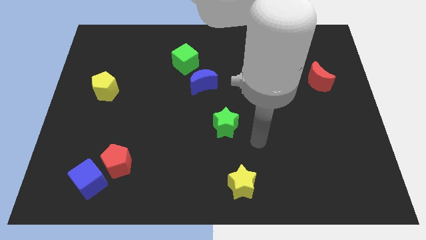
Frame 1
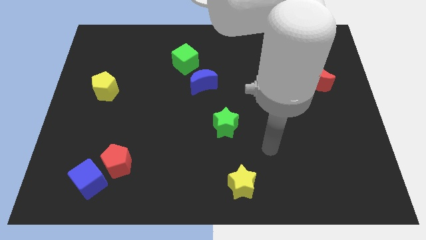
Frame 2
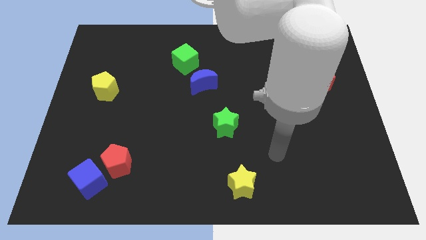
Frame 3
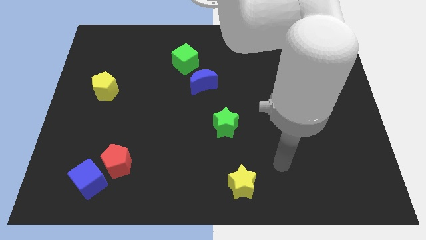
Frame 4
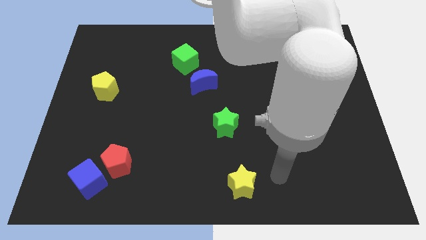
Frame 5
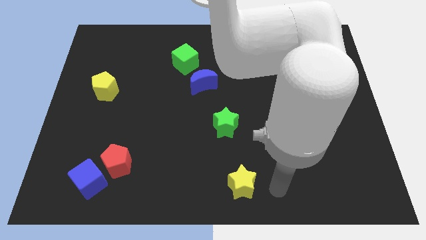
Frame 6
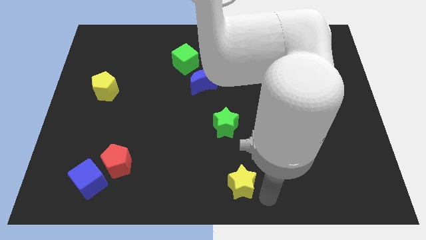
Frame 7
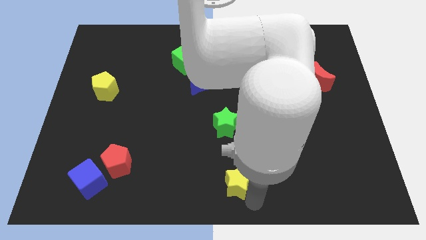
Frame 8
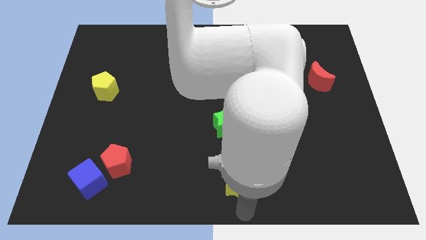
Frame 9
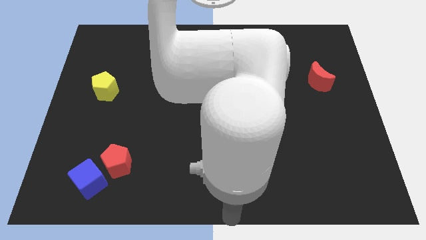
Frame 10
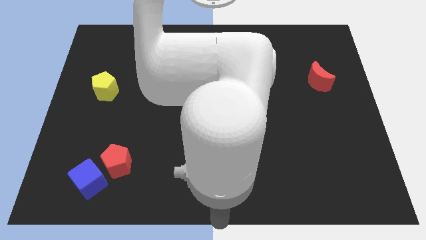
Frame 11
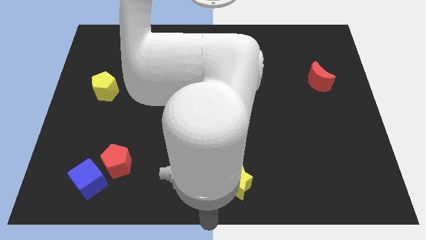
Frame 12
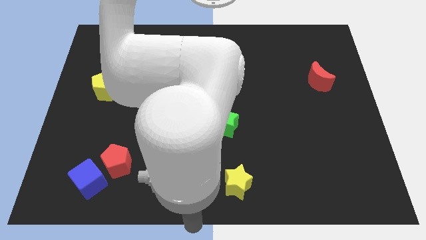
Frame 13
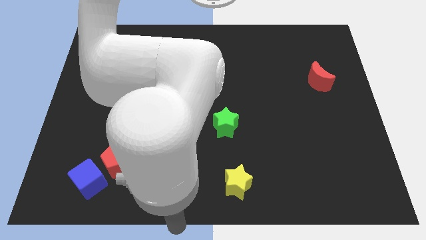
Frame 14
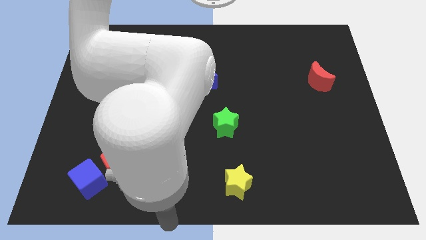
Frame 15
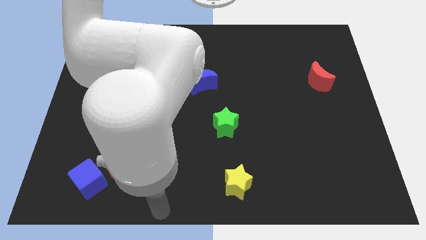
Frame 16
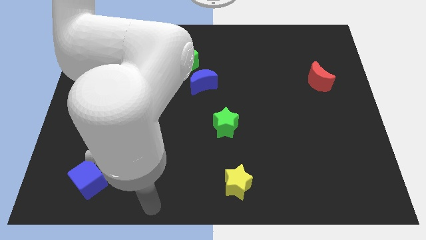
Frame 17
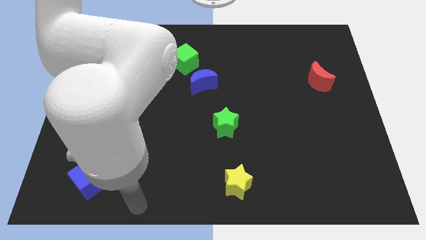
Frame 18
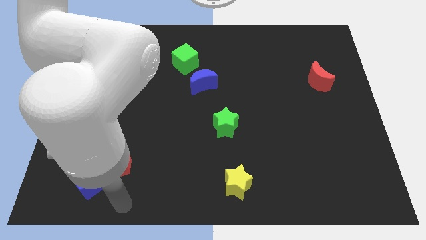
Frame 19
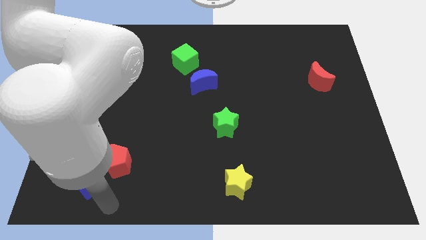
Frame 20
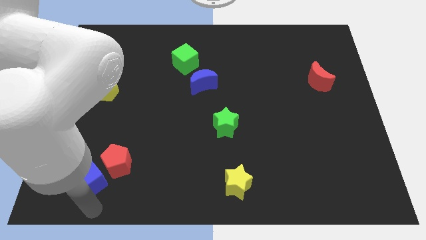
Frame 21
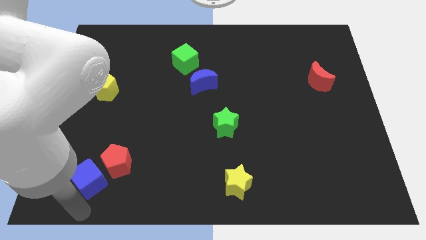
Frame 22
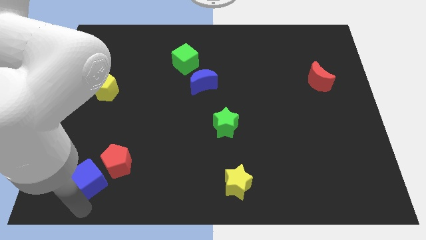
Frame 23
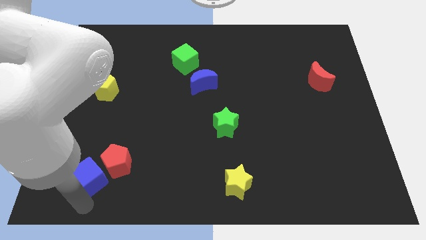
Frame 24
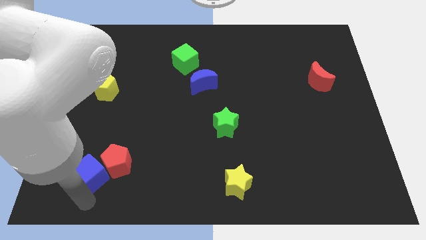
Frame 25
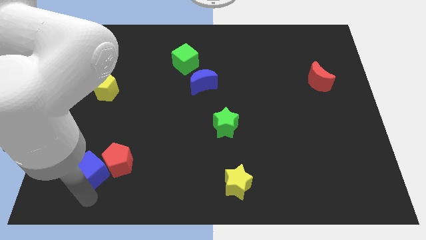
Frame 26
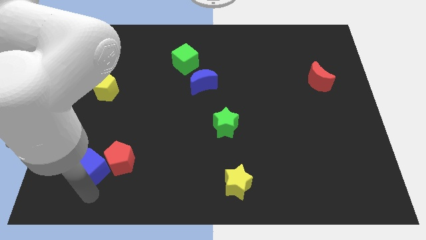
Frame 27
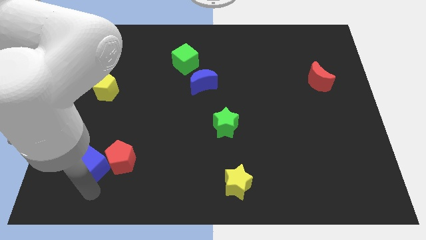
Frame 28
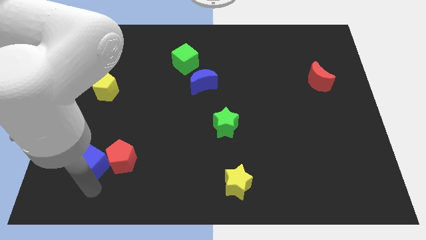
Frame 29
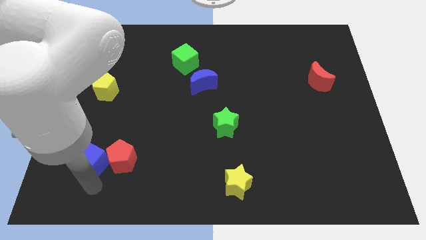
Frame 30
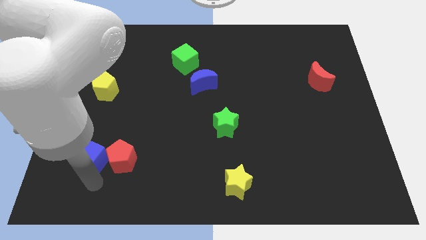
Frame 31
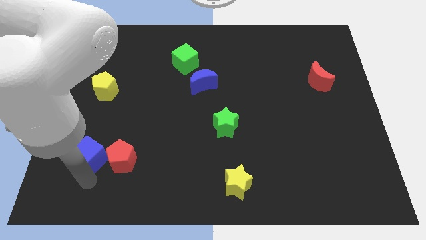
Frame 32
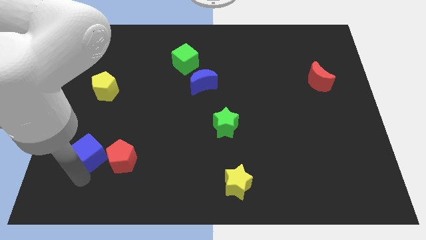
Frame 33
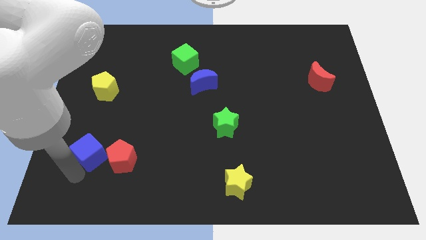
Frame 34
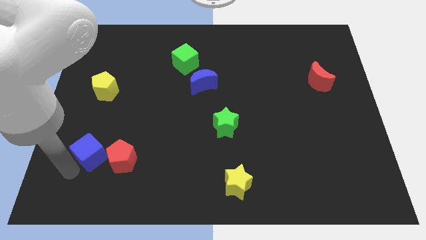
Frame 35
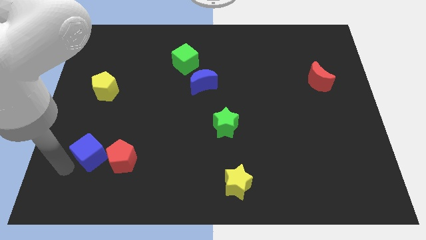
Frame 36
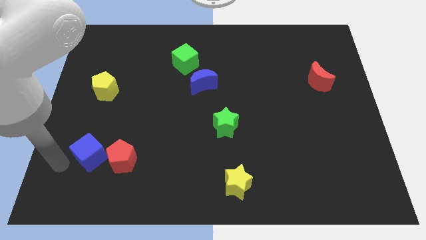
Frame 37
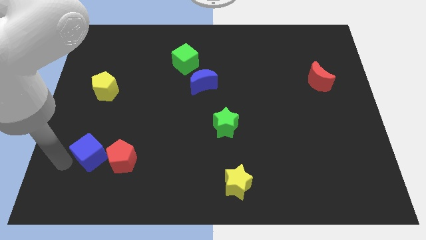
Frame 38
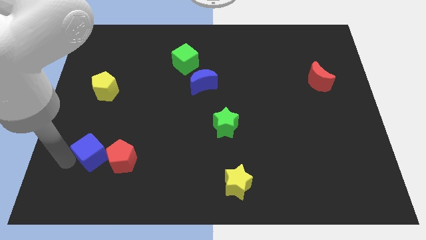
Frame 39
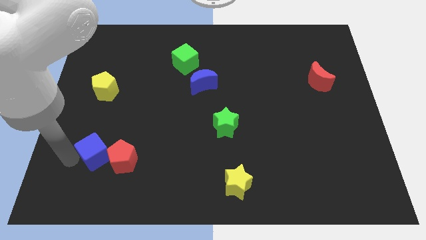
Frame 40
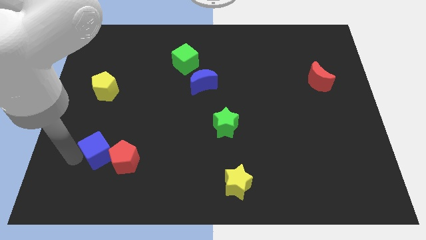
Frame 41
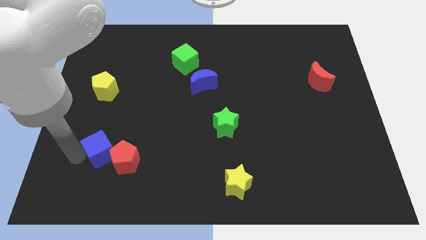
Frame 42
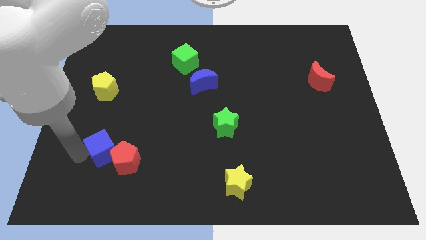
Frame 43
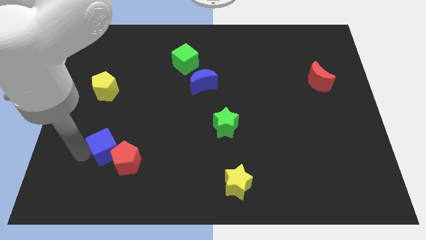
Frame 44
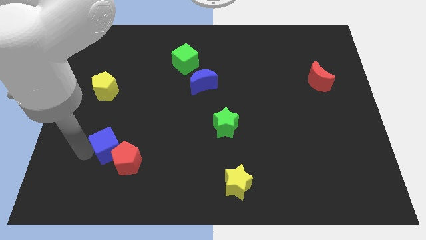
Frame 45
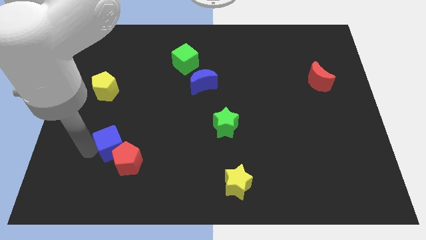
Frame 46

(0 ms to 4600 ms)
push the blue cube up and right diagonally somewhat

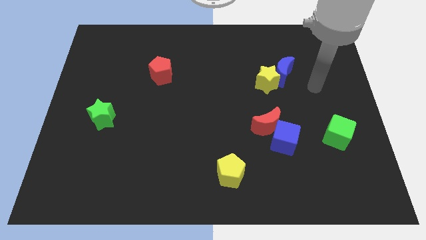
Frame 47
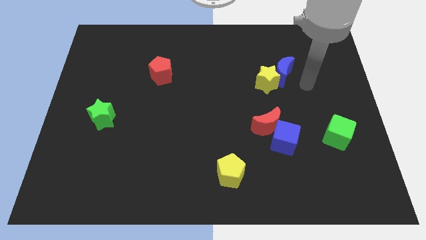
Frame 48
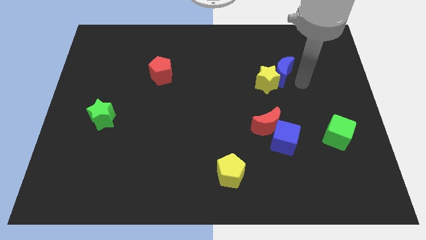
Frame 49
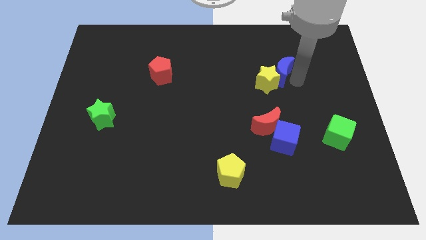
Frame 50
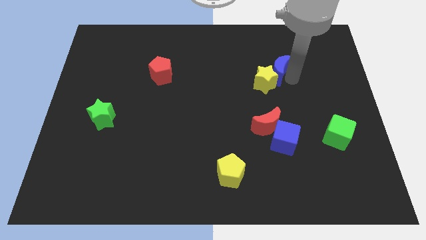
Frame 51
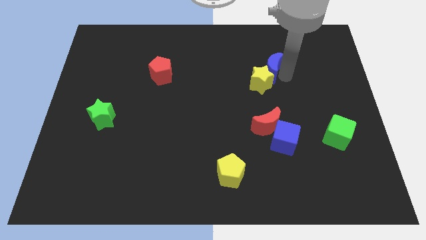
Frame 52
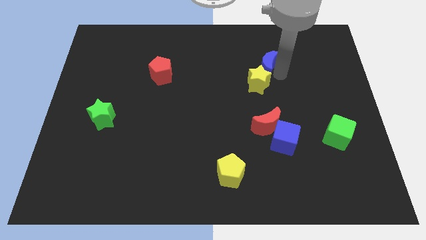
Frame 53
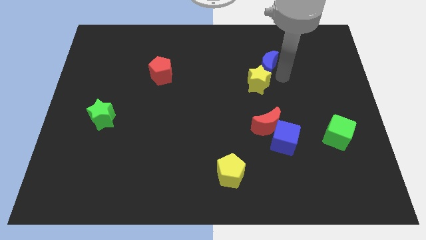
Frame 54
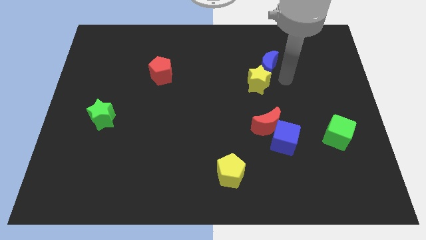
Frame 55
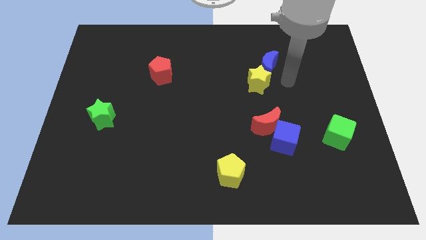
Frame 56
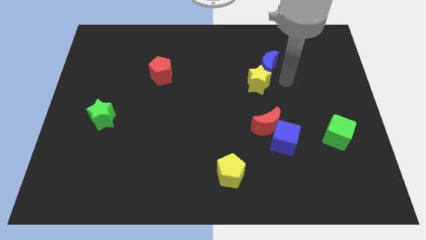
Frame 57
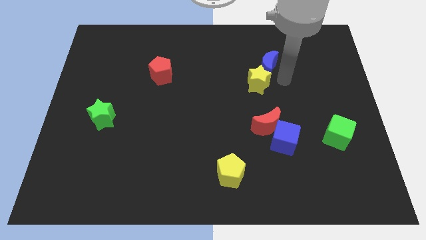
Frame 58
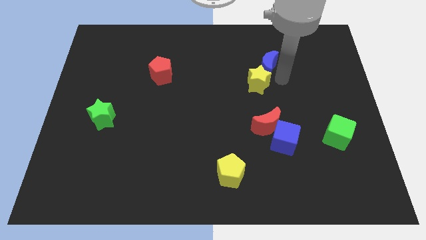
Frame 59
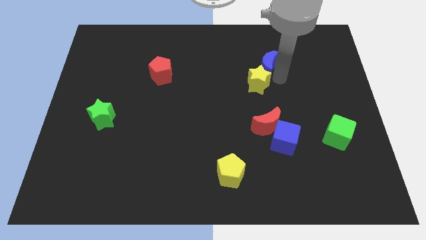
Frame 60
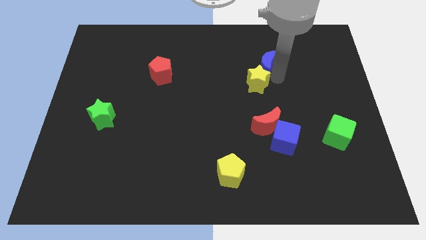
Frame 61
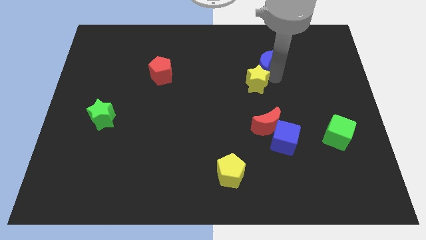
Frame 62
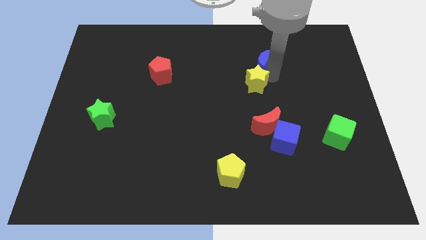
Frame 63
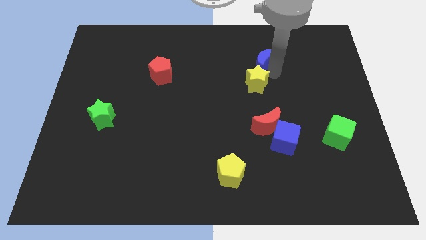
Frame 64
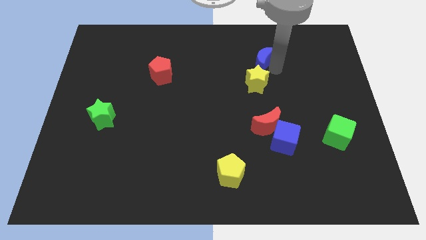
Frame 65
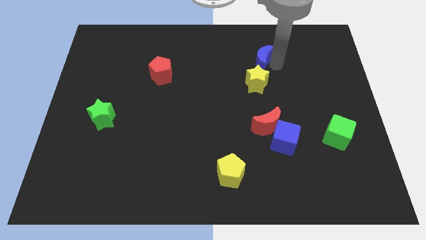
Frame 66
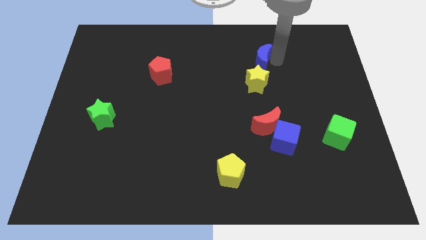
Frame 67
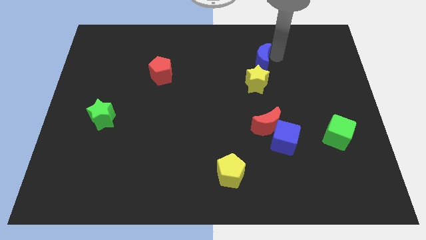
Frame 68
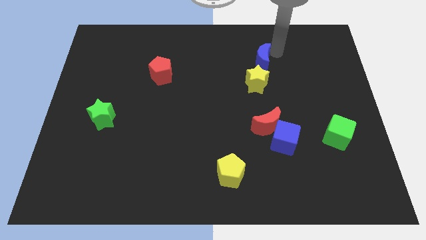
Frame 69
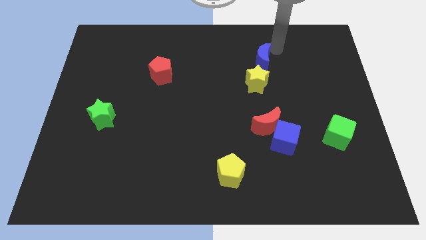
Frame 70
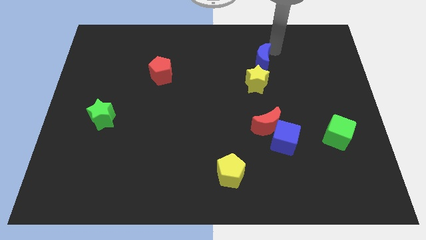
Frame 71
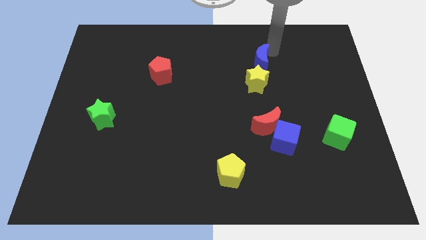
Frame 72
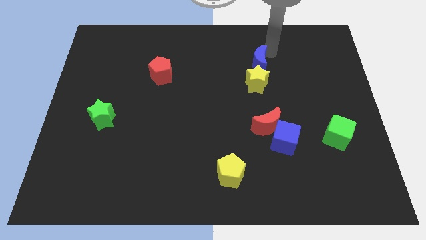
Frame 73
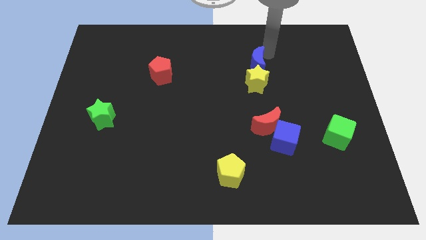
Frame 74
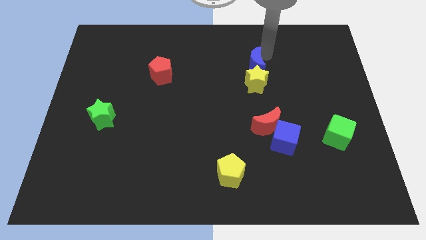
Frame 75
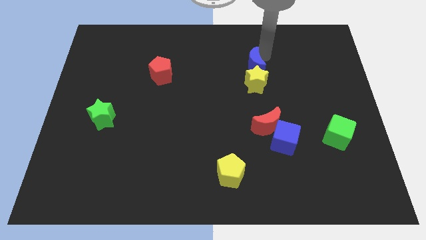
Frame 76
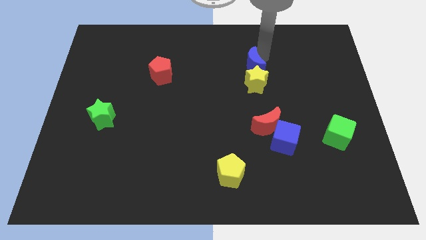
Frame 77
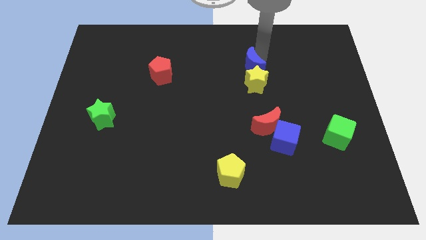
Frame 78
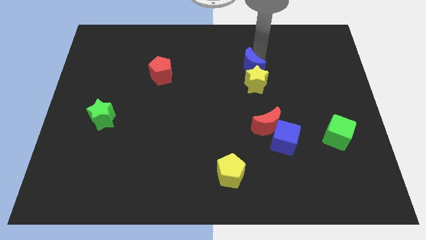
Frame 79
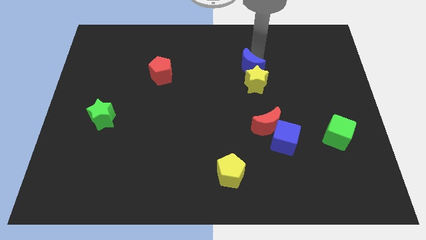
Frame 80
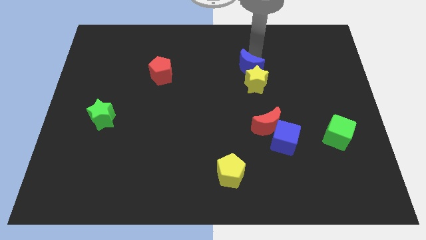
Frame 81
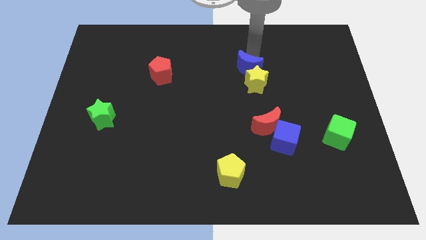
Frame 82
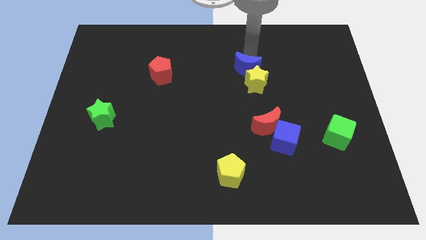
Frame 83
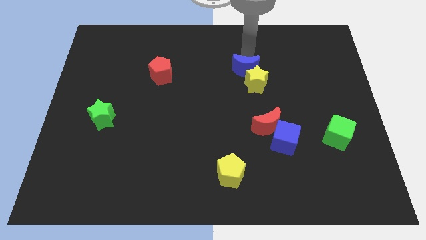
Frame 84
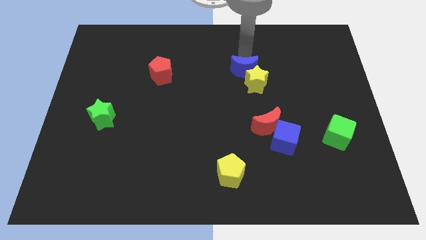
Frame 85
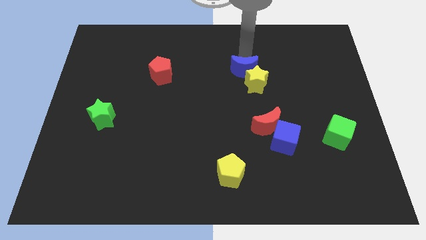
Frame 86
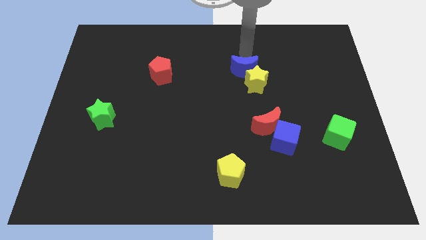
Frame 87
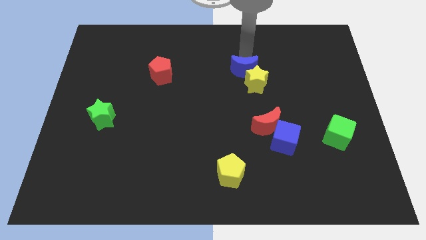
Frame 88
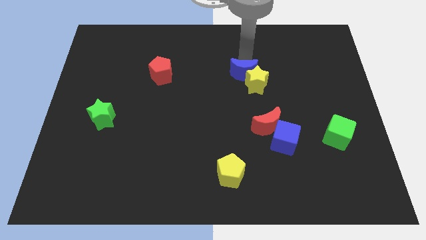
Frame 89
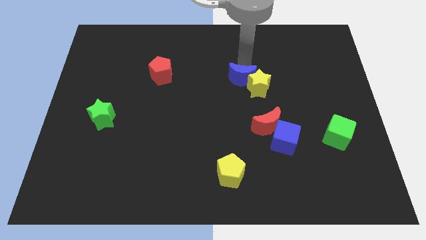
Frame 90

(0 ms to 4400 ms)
push the blue moon a little diagonally down and to the left
